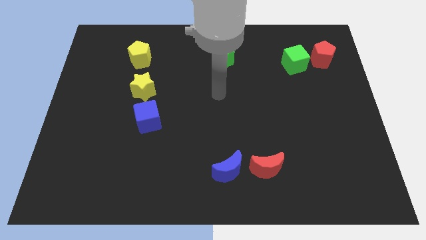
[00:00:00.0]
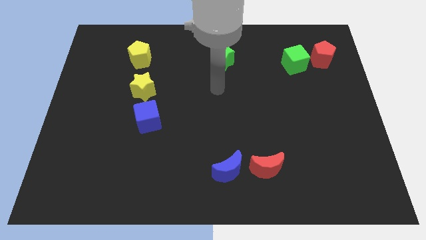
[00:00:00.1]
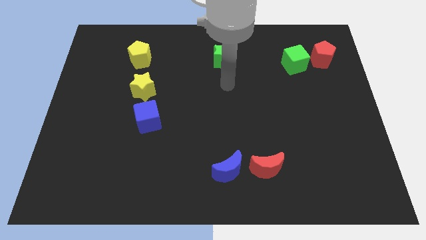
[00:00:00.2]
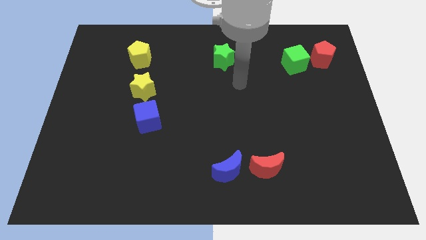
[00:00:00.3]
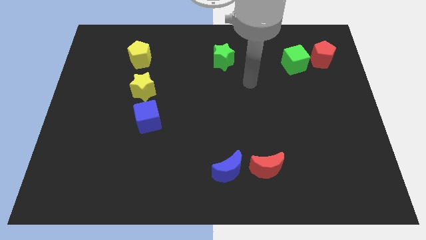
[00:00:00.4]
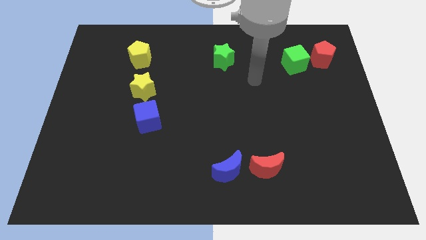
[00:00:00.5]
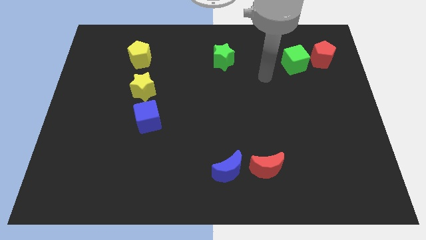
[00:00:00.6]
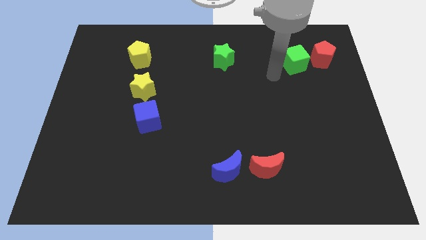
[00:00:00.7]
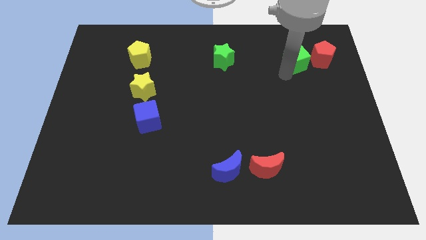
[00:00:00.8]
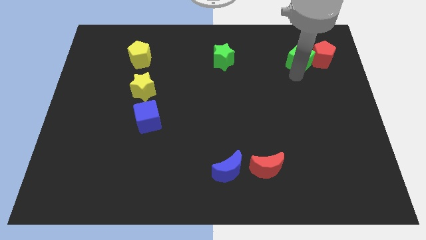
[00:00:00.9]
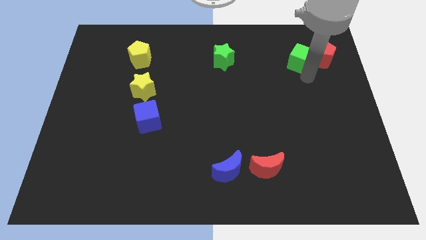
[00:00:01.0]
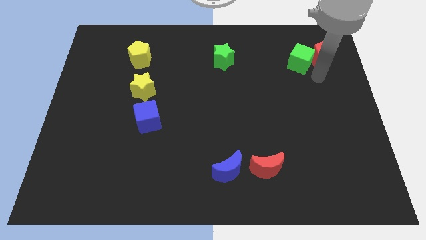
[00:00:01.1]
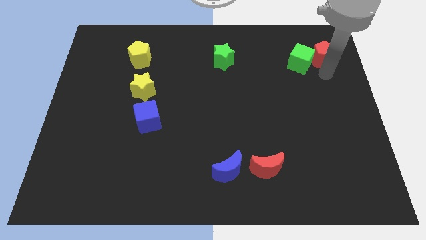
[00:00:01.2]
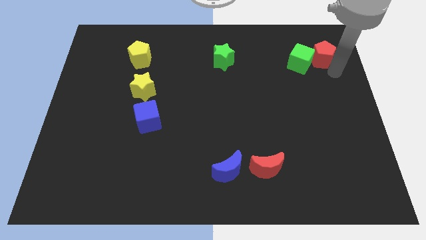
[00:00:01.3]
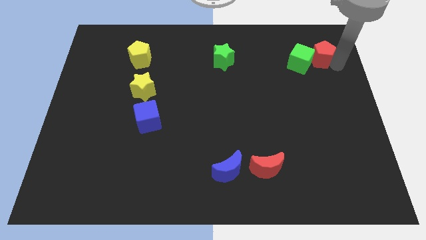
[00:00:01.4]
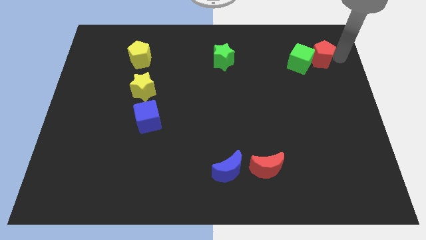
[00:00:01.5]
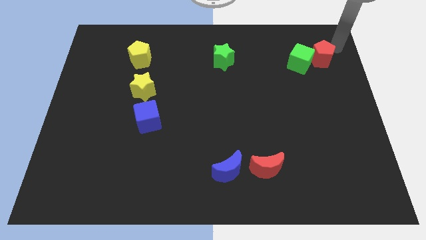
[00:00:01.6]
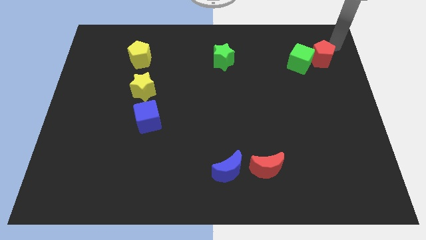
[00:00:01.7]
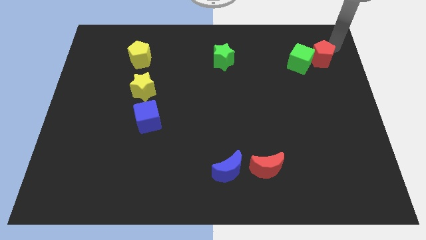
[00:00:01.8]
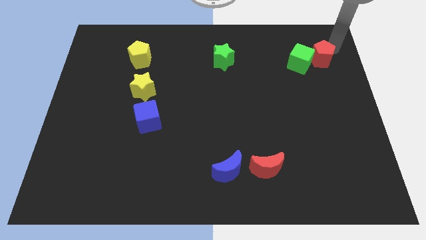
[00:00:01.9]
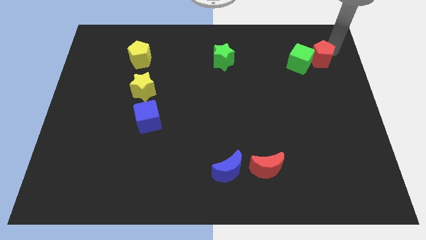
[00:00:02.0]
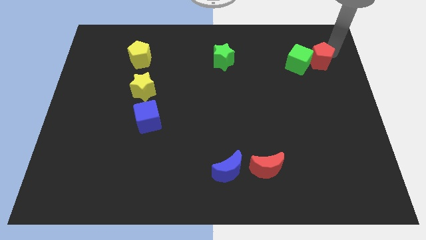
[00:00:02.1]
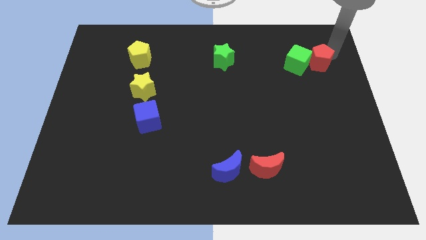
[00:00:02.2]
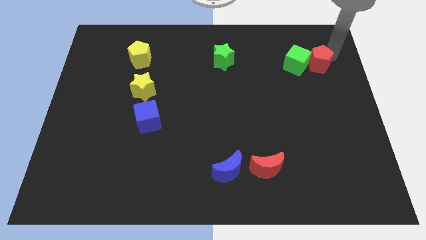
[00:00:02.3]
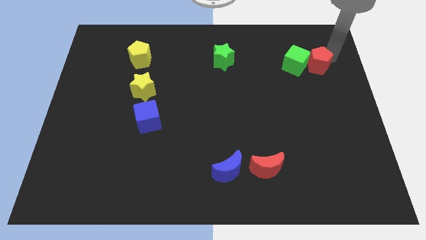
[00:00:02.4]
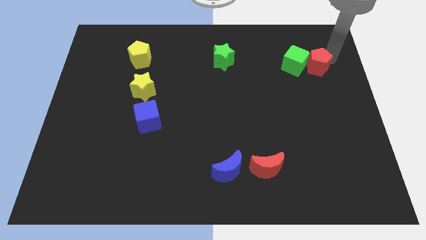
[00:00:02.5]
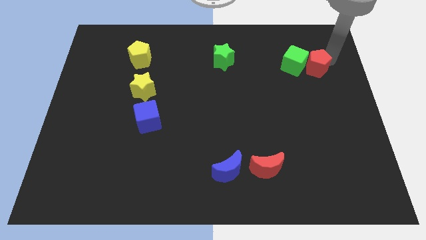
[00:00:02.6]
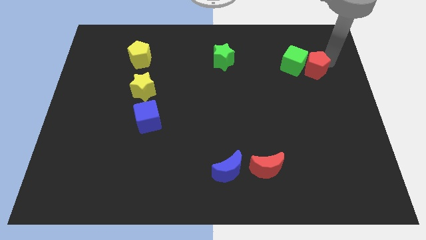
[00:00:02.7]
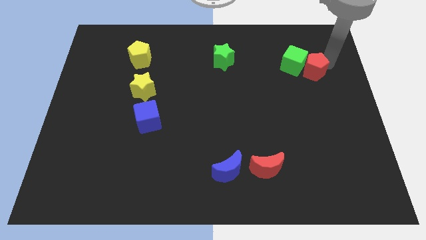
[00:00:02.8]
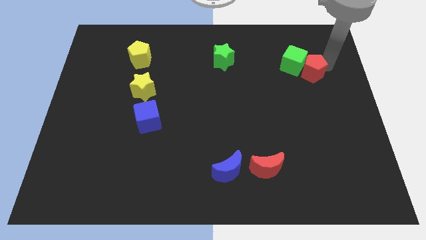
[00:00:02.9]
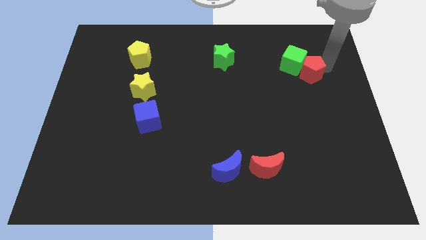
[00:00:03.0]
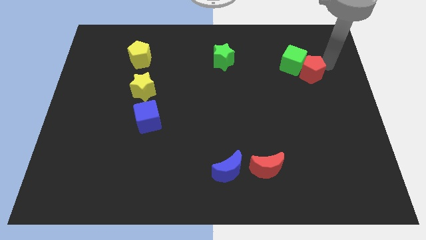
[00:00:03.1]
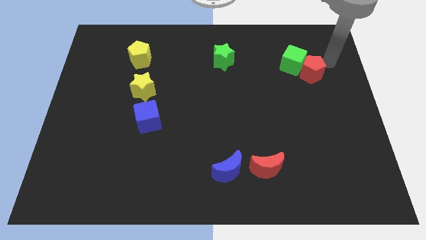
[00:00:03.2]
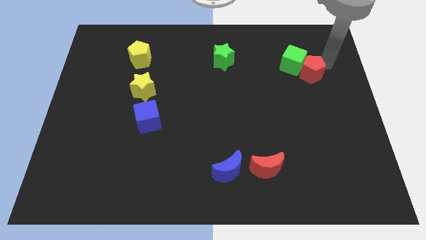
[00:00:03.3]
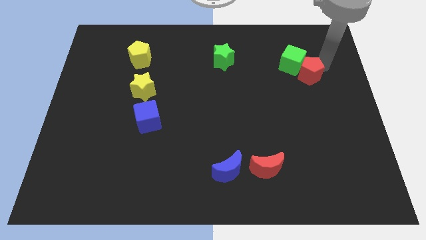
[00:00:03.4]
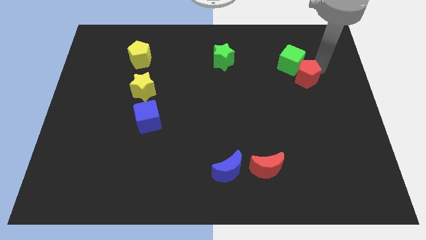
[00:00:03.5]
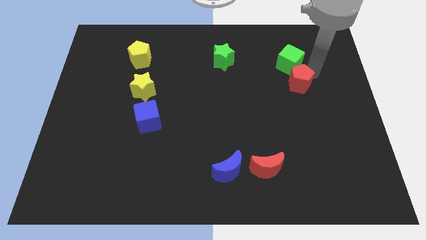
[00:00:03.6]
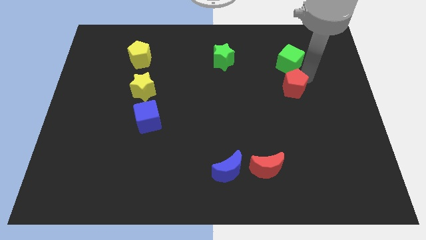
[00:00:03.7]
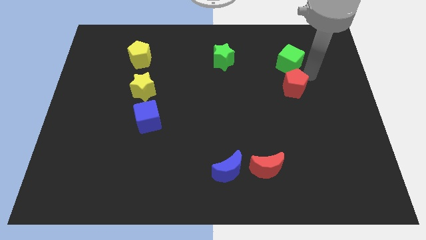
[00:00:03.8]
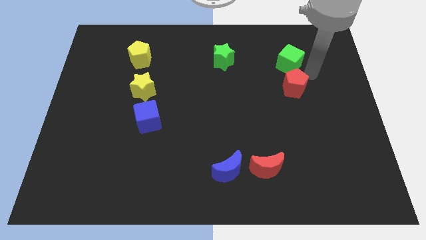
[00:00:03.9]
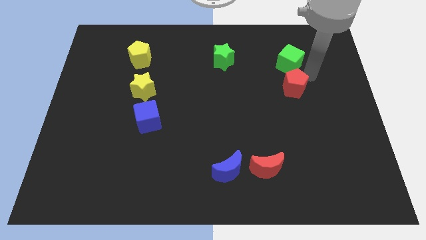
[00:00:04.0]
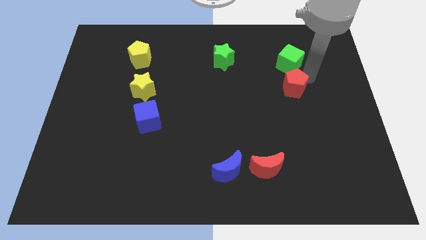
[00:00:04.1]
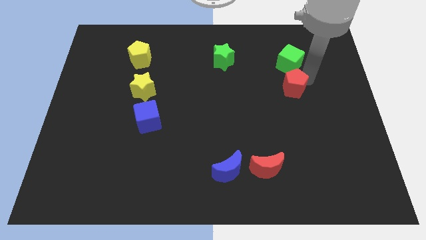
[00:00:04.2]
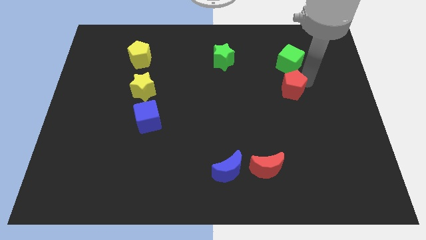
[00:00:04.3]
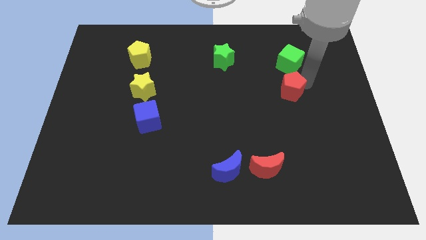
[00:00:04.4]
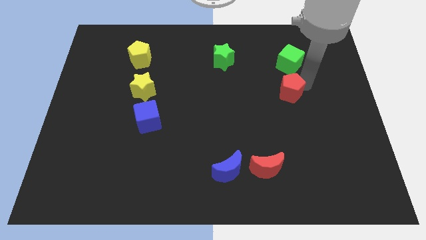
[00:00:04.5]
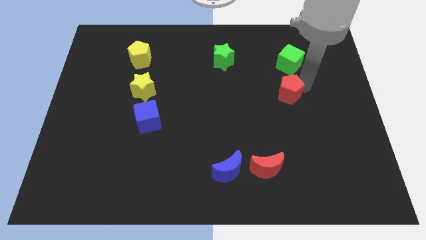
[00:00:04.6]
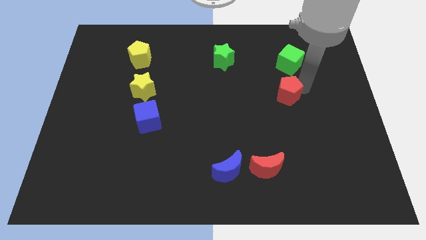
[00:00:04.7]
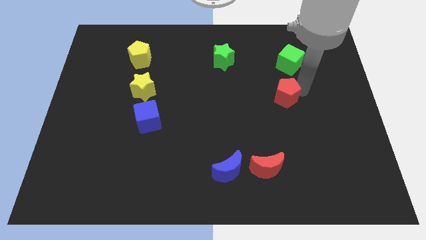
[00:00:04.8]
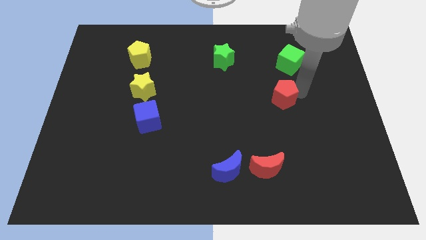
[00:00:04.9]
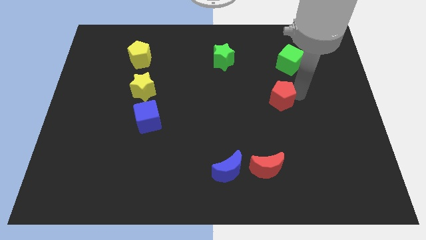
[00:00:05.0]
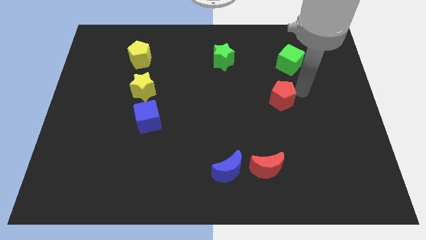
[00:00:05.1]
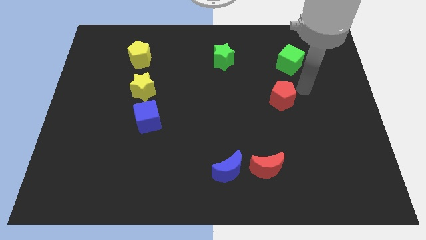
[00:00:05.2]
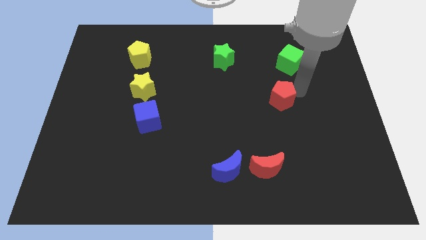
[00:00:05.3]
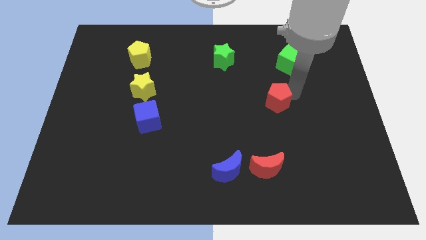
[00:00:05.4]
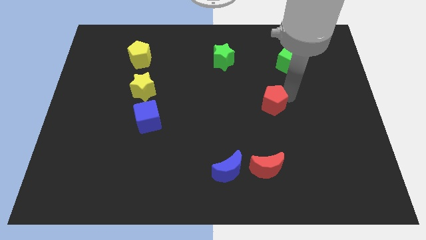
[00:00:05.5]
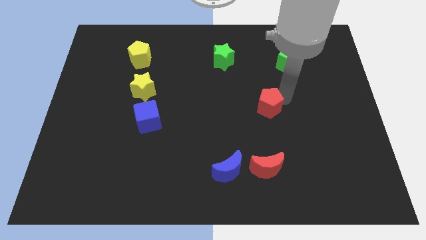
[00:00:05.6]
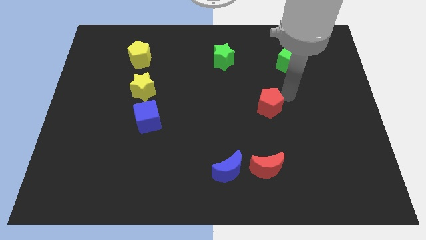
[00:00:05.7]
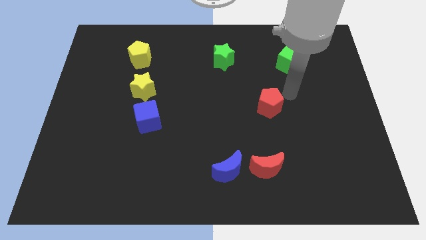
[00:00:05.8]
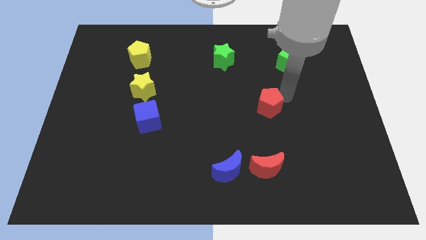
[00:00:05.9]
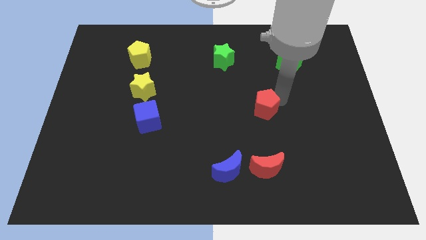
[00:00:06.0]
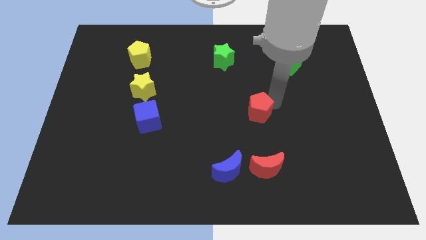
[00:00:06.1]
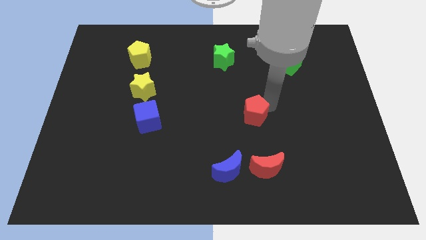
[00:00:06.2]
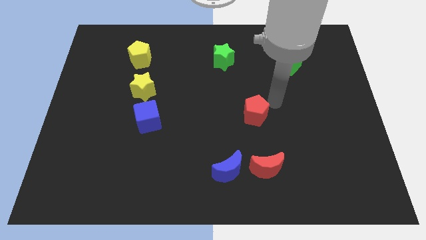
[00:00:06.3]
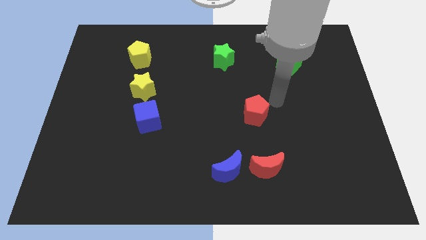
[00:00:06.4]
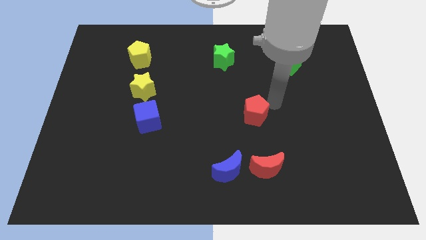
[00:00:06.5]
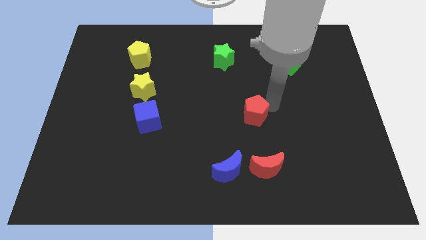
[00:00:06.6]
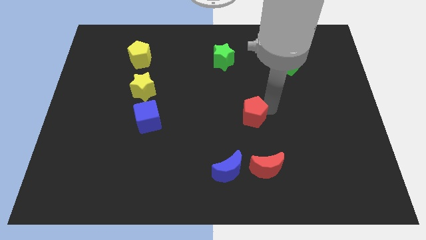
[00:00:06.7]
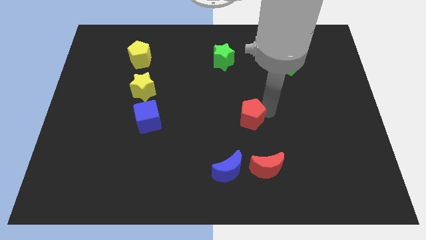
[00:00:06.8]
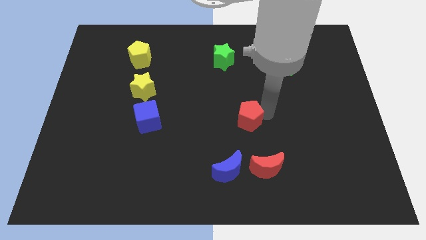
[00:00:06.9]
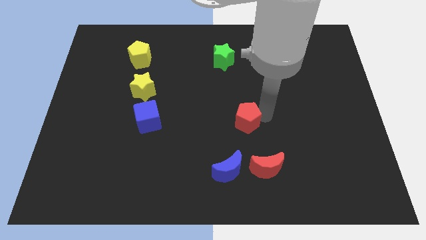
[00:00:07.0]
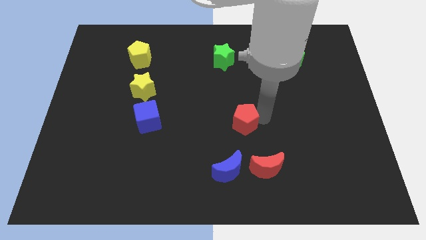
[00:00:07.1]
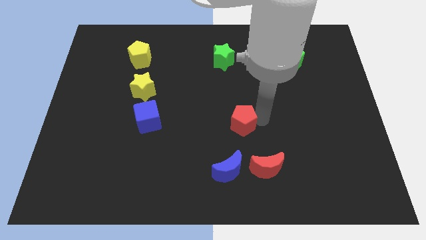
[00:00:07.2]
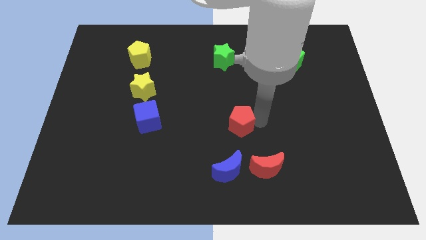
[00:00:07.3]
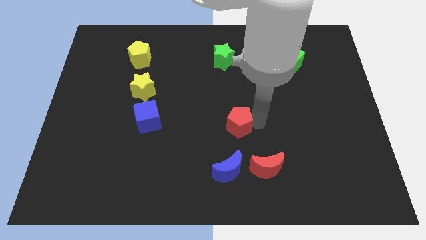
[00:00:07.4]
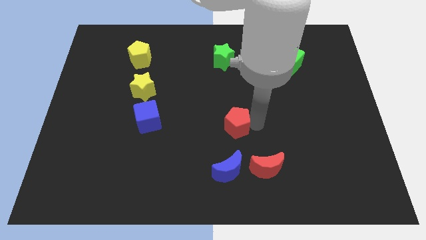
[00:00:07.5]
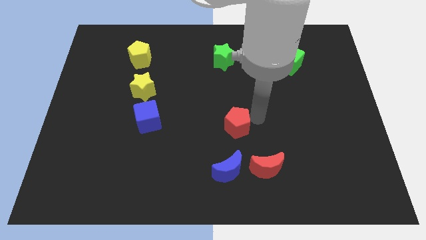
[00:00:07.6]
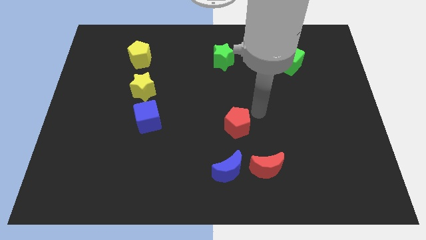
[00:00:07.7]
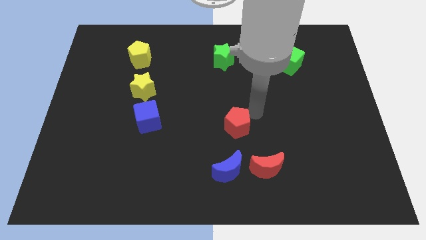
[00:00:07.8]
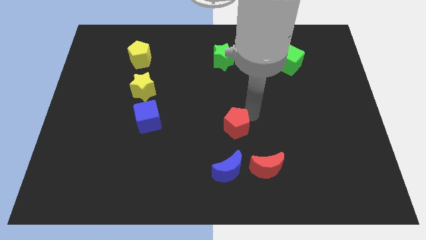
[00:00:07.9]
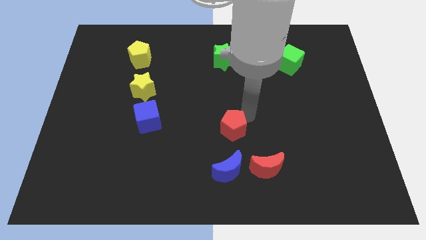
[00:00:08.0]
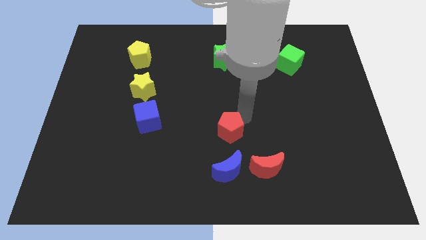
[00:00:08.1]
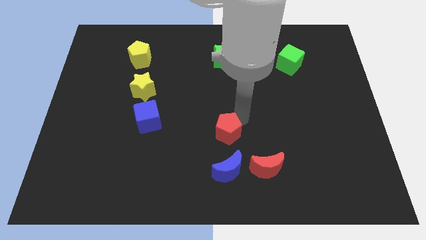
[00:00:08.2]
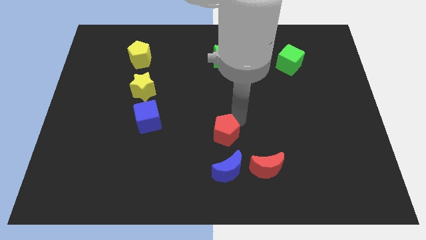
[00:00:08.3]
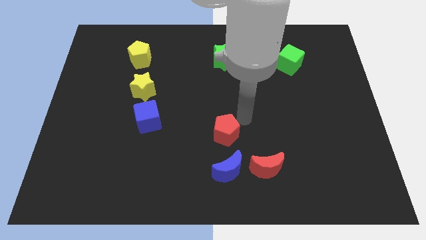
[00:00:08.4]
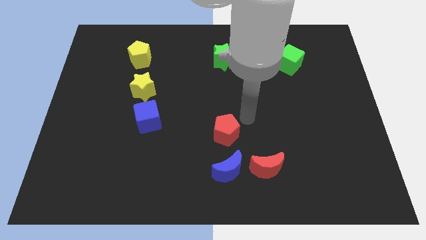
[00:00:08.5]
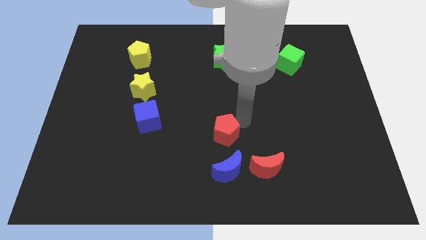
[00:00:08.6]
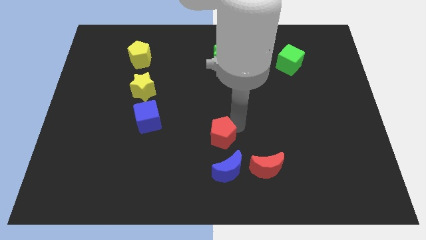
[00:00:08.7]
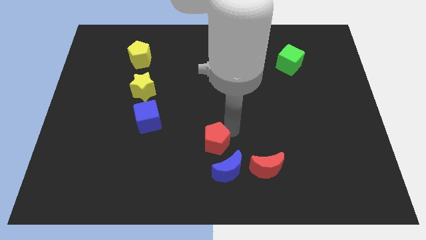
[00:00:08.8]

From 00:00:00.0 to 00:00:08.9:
slide the red pentagon to the top left side of the blue moon
